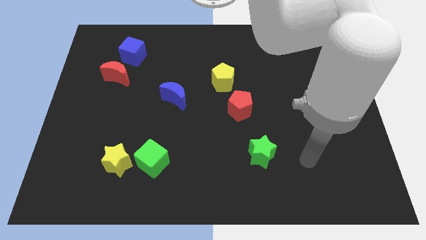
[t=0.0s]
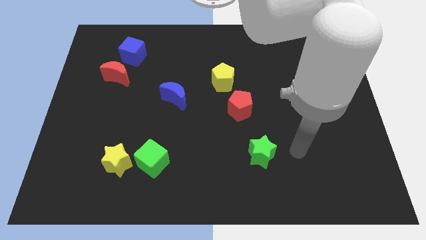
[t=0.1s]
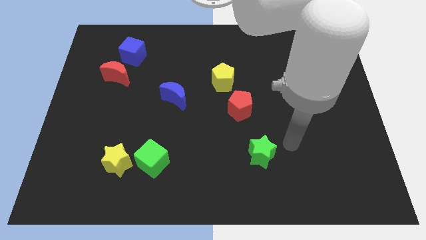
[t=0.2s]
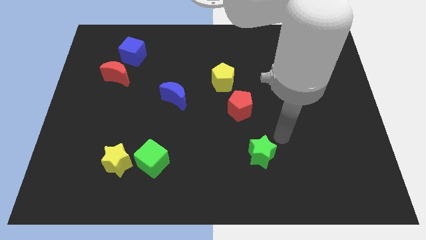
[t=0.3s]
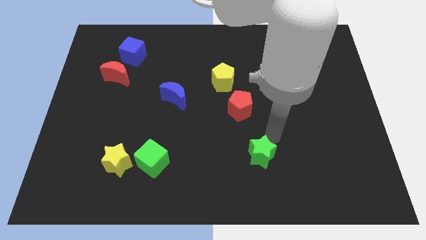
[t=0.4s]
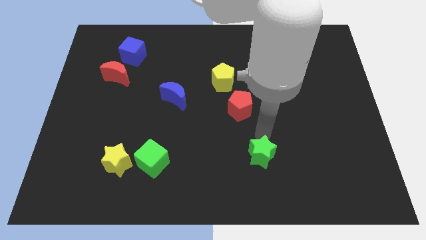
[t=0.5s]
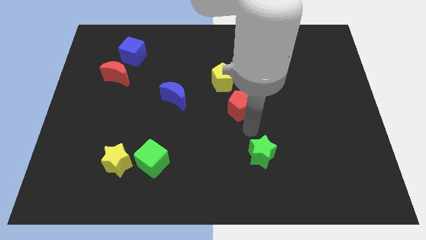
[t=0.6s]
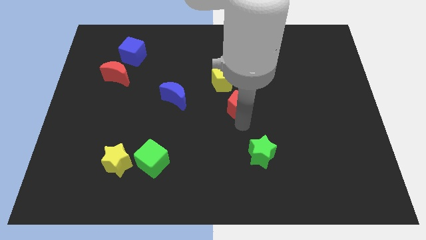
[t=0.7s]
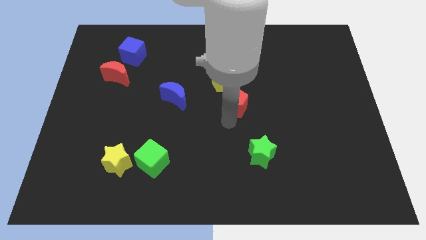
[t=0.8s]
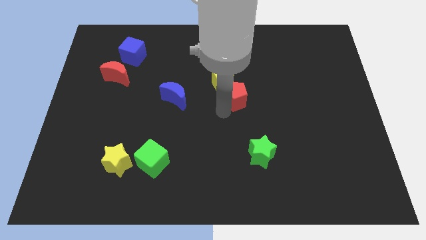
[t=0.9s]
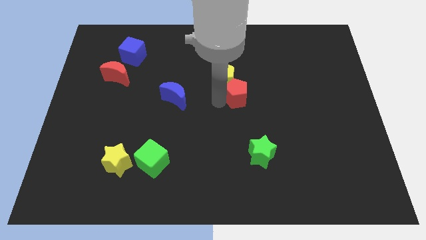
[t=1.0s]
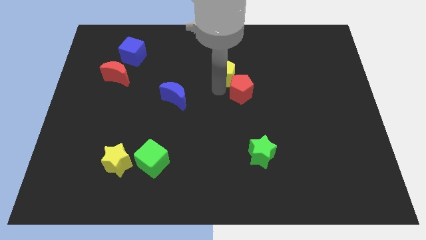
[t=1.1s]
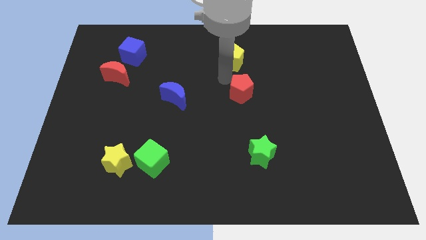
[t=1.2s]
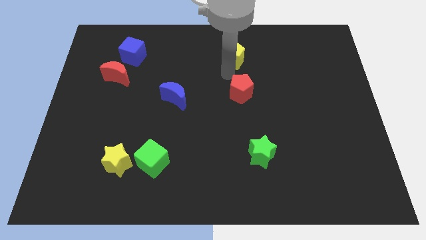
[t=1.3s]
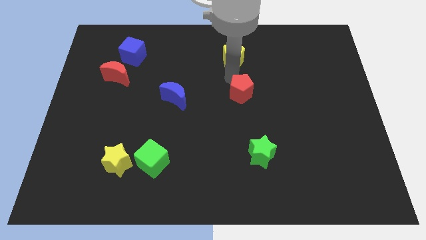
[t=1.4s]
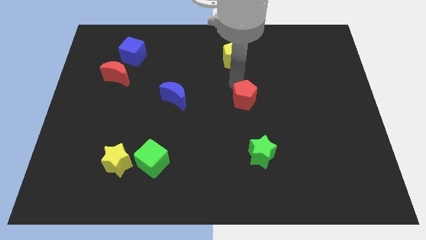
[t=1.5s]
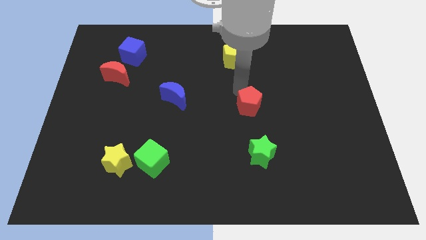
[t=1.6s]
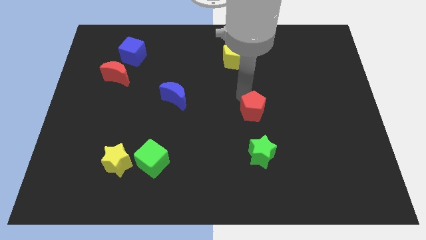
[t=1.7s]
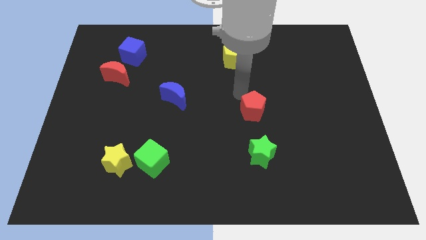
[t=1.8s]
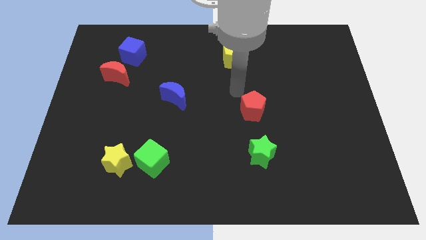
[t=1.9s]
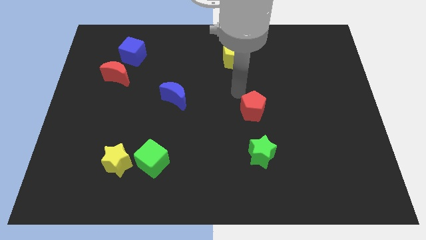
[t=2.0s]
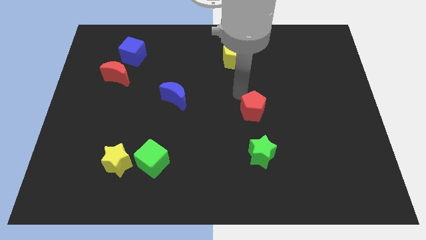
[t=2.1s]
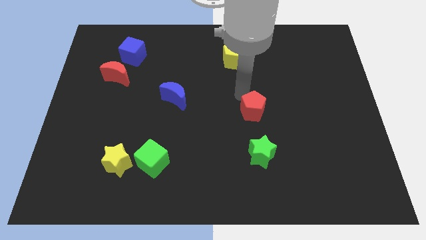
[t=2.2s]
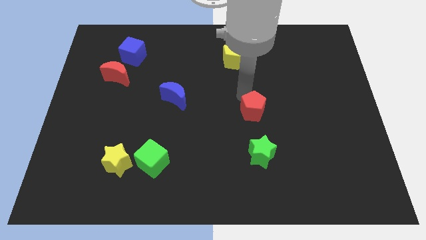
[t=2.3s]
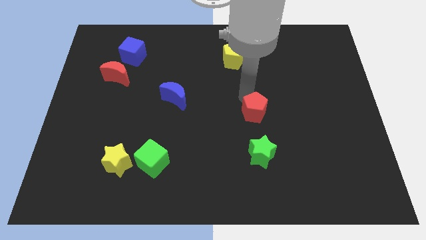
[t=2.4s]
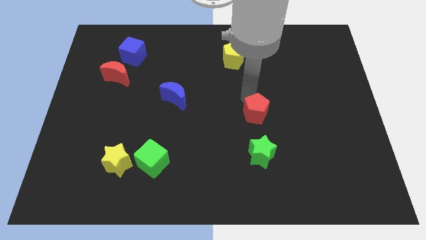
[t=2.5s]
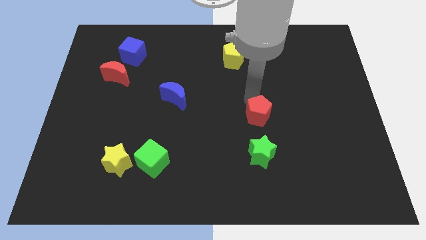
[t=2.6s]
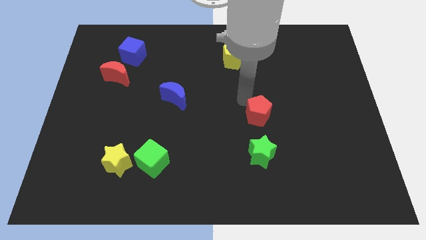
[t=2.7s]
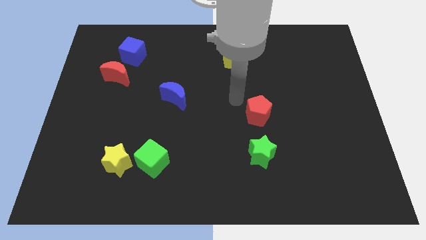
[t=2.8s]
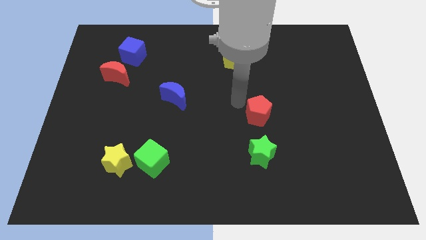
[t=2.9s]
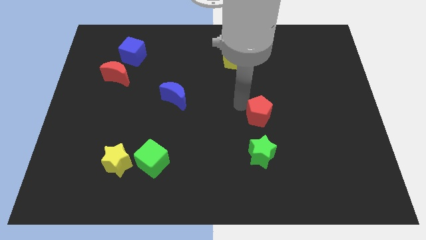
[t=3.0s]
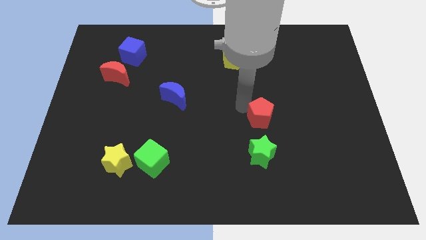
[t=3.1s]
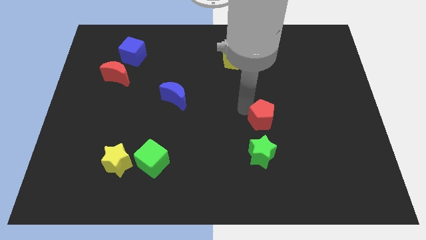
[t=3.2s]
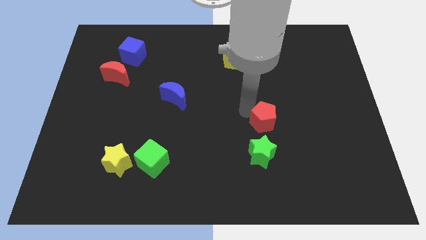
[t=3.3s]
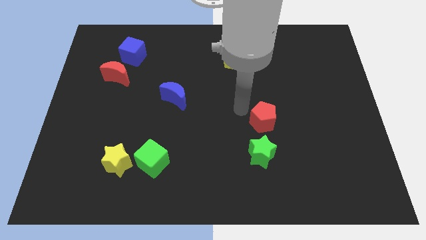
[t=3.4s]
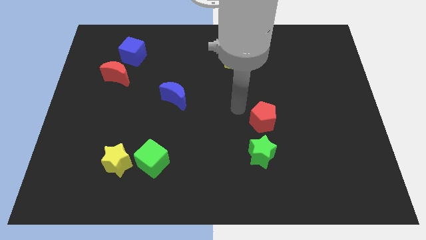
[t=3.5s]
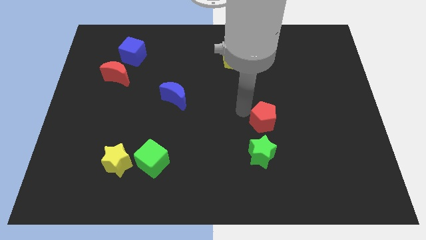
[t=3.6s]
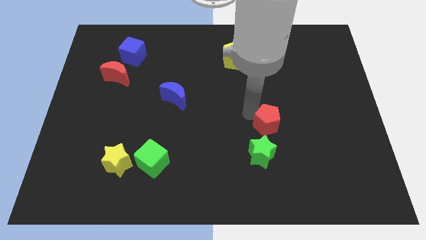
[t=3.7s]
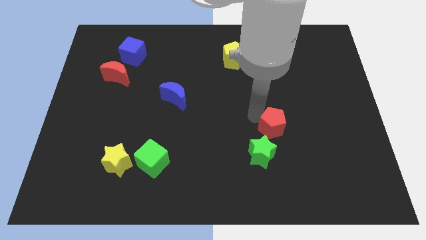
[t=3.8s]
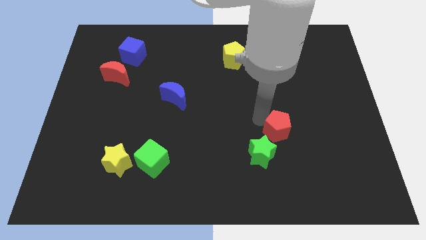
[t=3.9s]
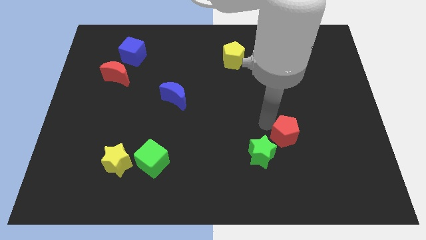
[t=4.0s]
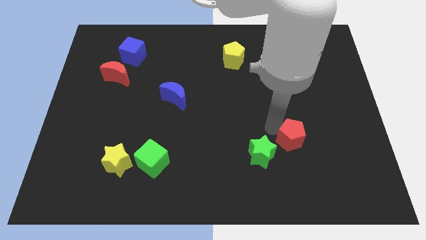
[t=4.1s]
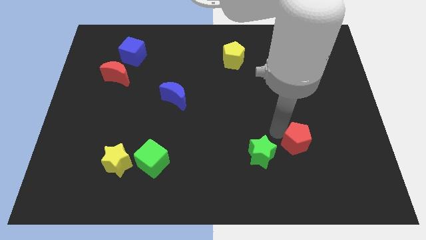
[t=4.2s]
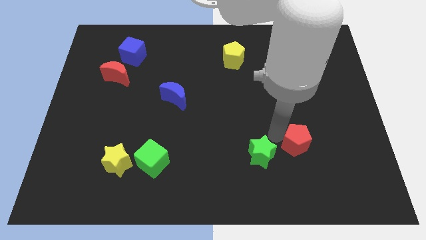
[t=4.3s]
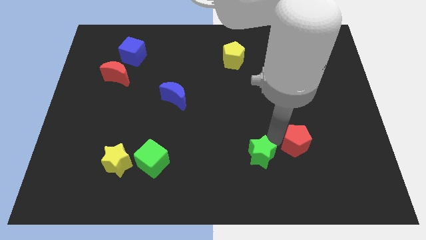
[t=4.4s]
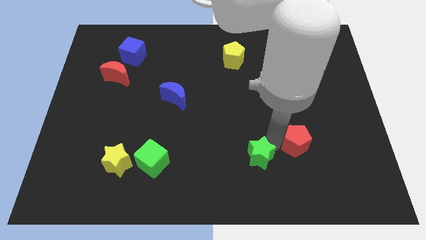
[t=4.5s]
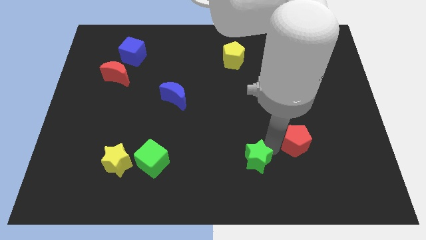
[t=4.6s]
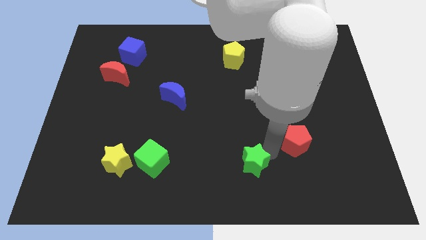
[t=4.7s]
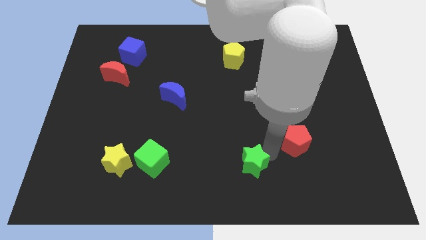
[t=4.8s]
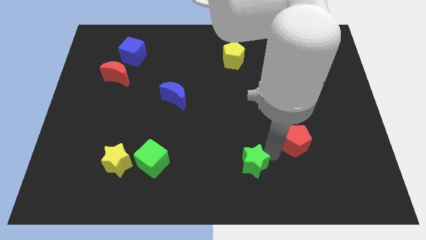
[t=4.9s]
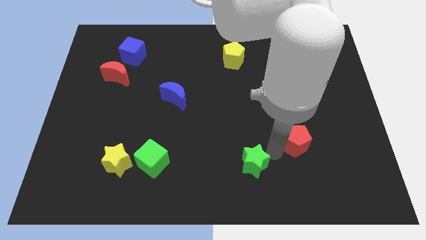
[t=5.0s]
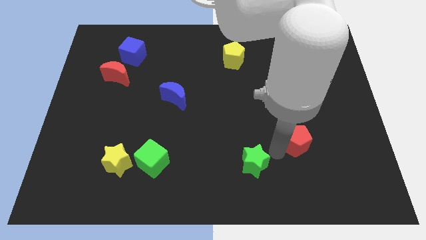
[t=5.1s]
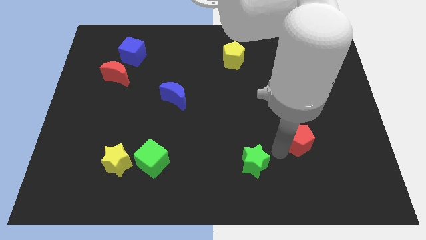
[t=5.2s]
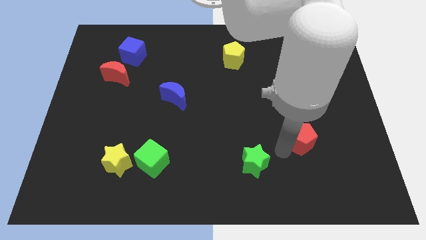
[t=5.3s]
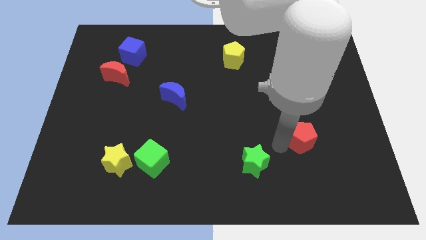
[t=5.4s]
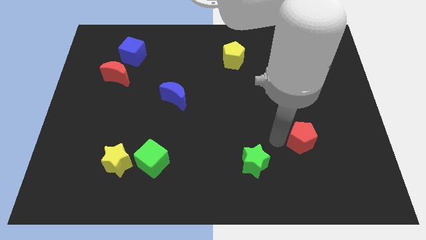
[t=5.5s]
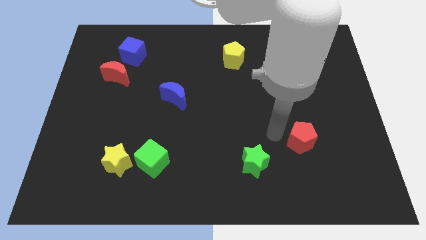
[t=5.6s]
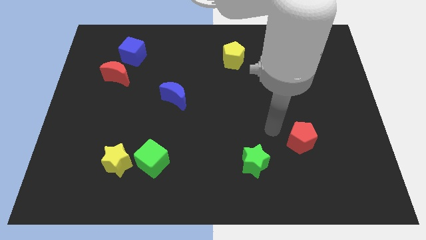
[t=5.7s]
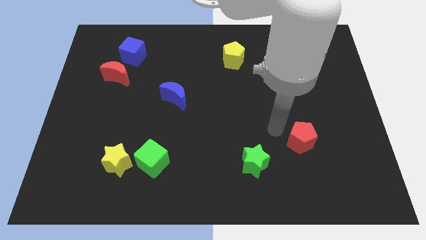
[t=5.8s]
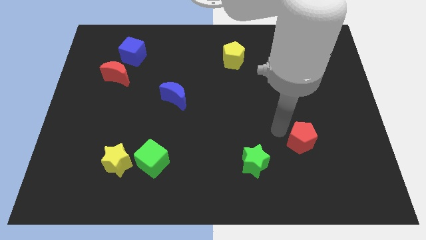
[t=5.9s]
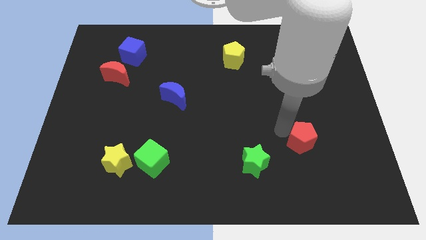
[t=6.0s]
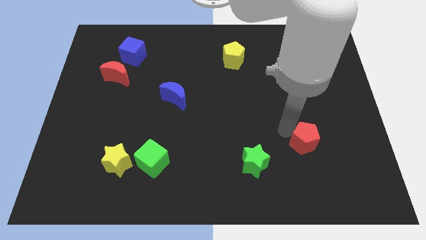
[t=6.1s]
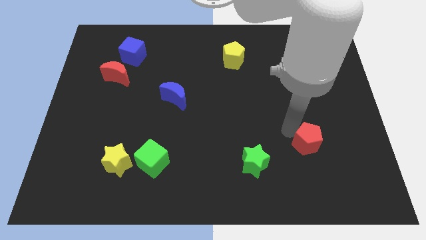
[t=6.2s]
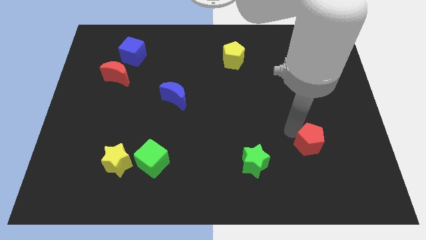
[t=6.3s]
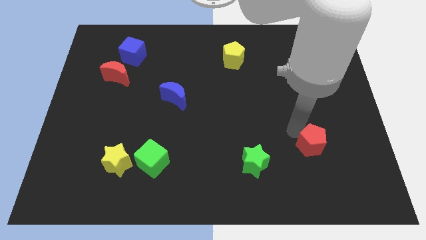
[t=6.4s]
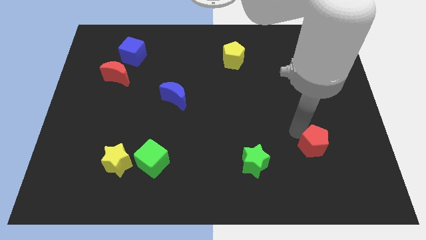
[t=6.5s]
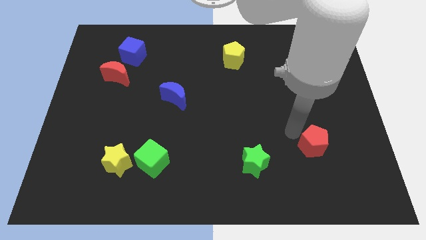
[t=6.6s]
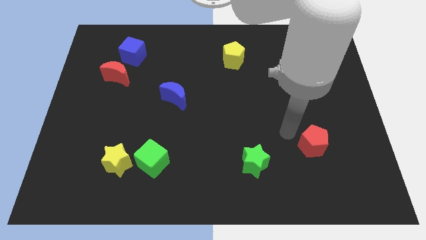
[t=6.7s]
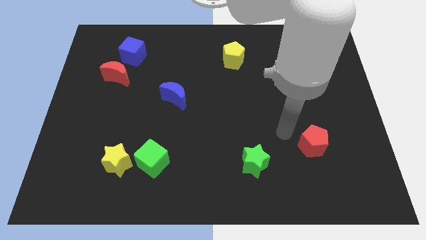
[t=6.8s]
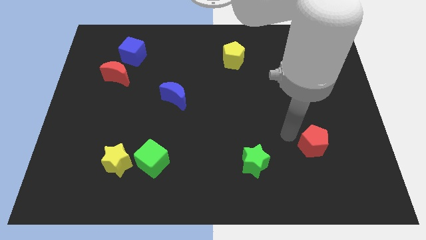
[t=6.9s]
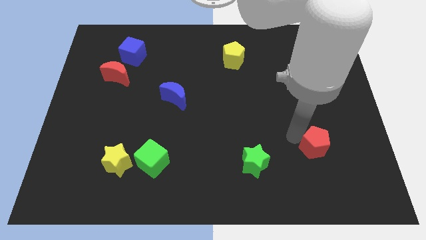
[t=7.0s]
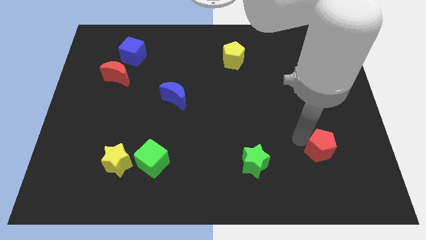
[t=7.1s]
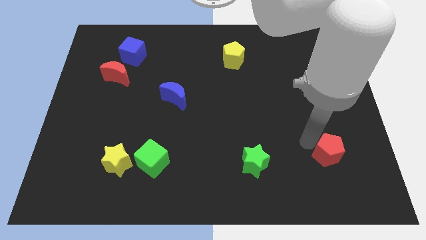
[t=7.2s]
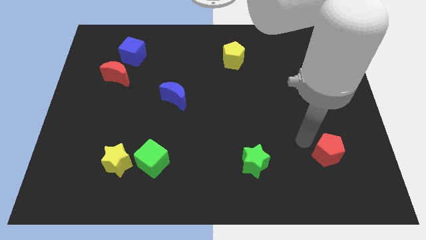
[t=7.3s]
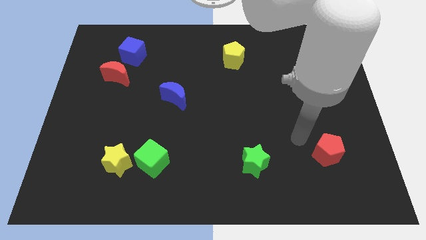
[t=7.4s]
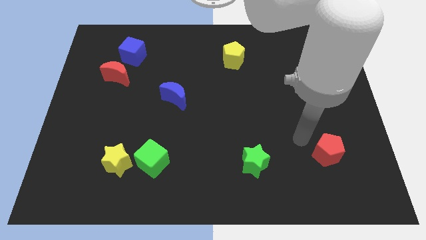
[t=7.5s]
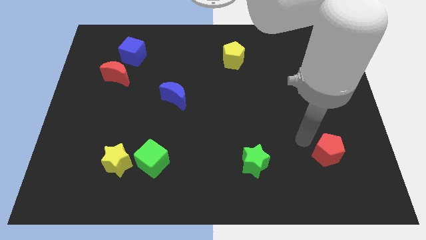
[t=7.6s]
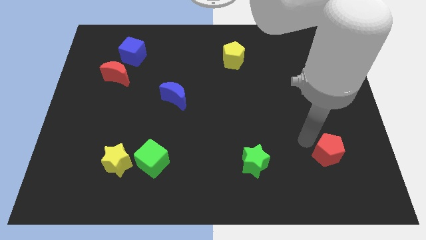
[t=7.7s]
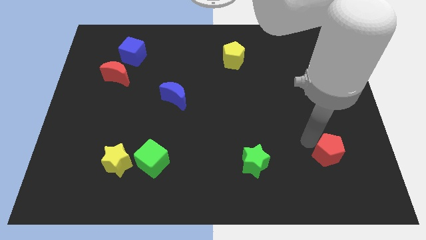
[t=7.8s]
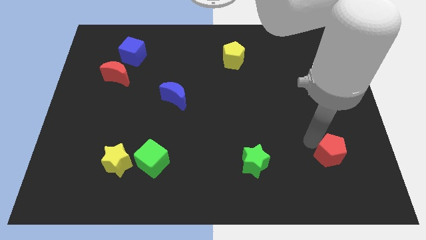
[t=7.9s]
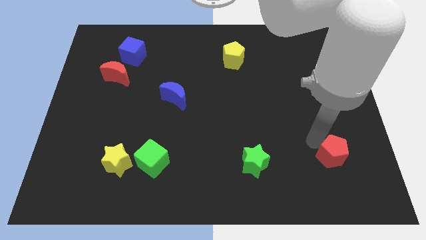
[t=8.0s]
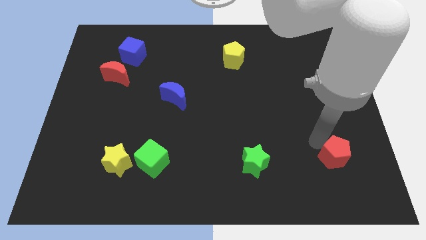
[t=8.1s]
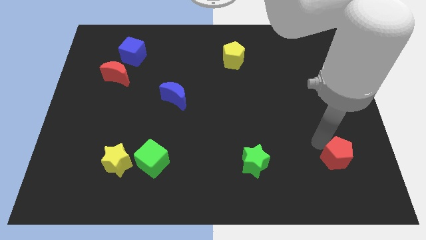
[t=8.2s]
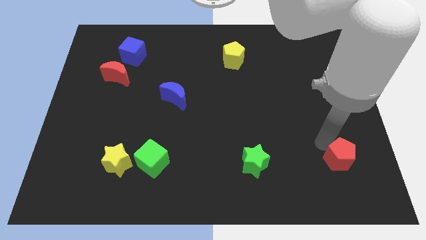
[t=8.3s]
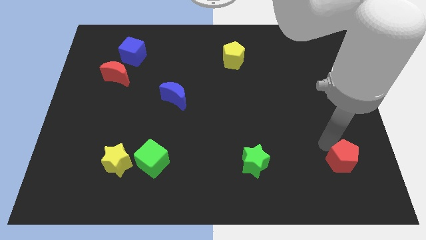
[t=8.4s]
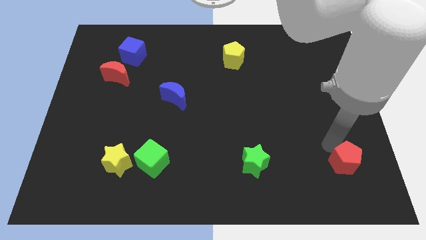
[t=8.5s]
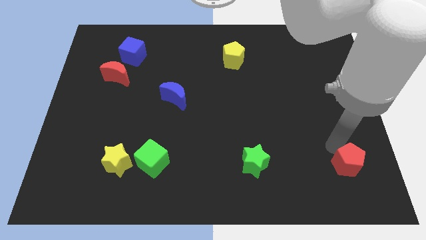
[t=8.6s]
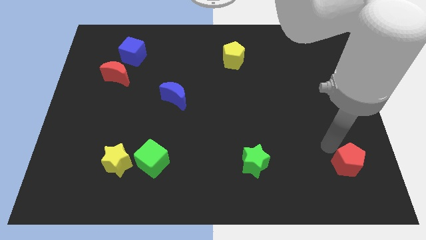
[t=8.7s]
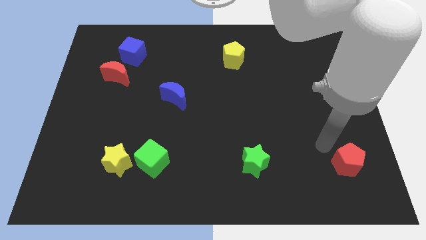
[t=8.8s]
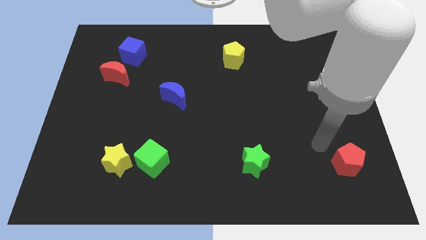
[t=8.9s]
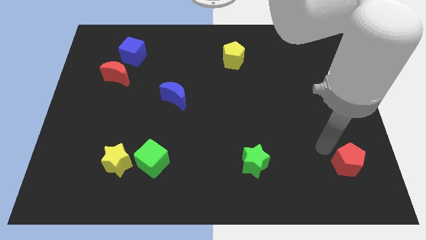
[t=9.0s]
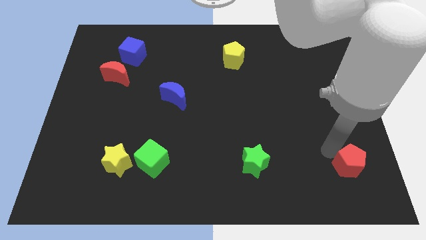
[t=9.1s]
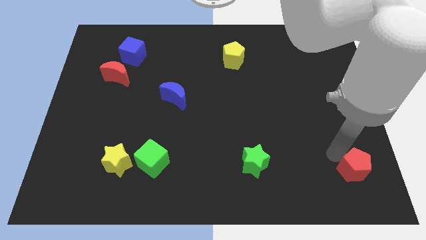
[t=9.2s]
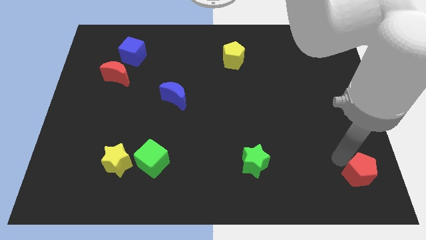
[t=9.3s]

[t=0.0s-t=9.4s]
slide the red pentagon to the lower right corner
